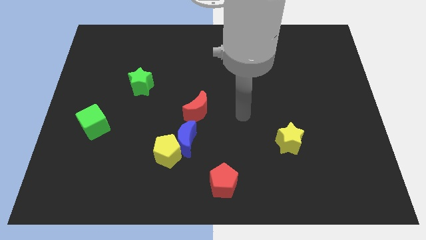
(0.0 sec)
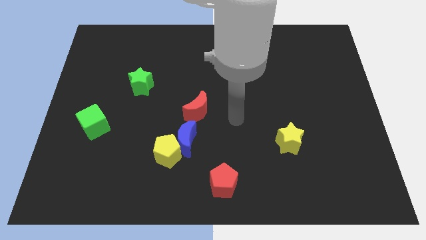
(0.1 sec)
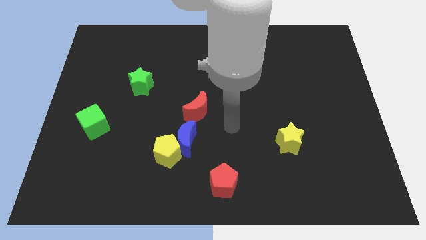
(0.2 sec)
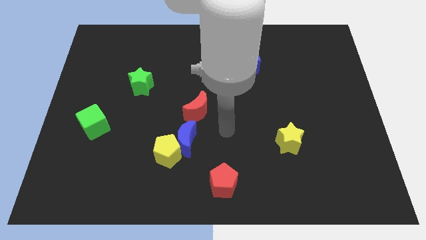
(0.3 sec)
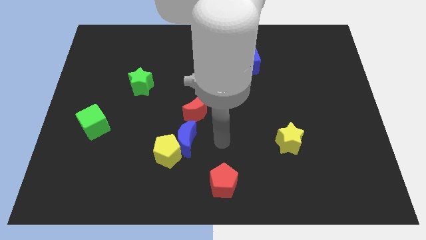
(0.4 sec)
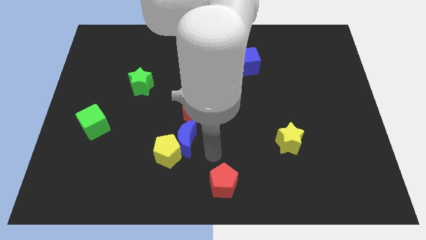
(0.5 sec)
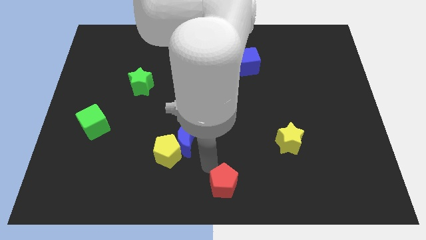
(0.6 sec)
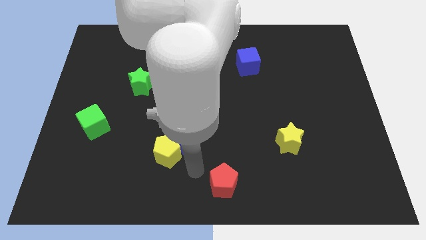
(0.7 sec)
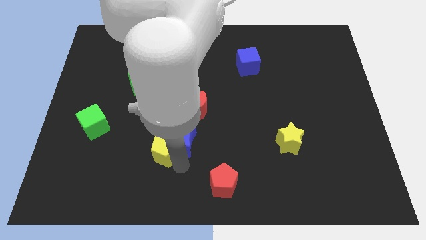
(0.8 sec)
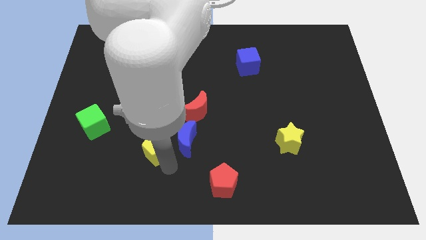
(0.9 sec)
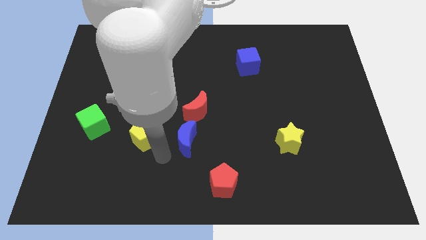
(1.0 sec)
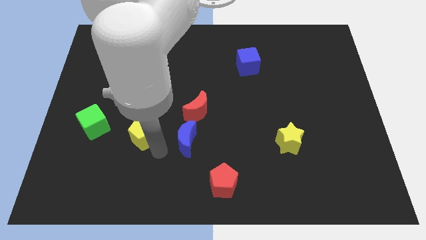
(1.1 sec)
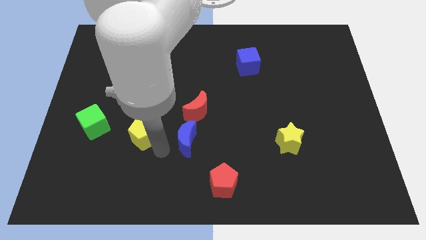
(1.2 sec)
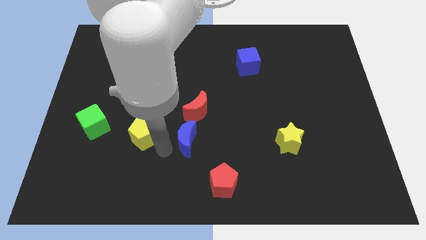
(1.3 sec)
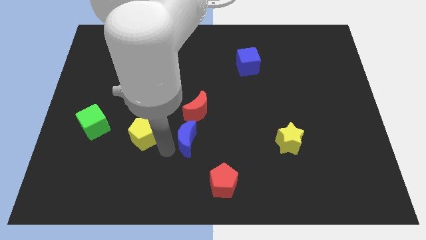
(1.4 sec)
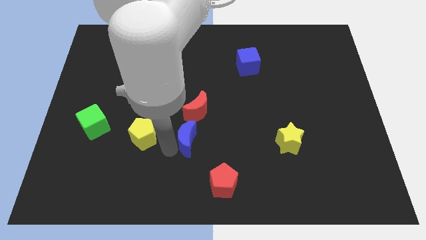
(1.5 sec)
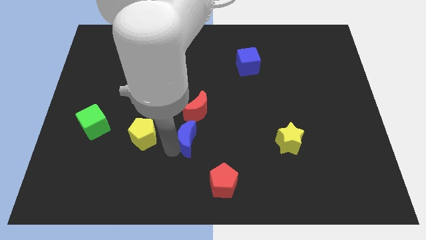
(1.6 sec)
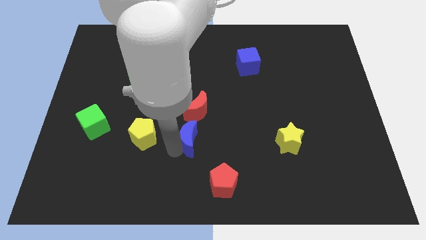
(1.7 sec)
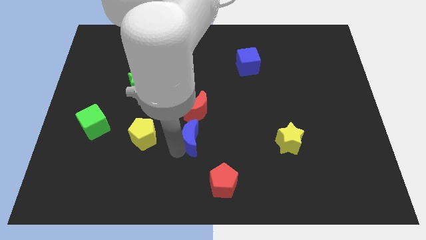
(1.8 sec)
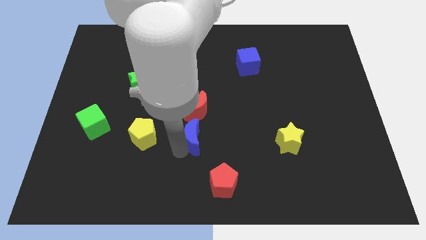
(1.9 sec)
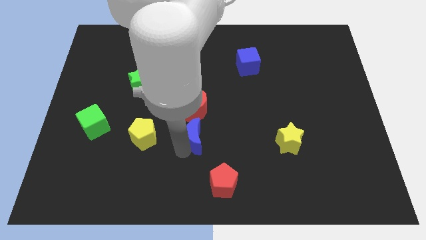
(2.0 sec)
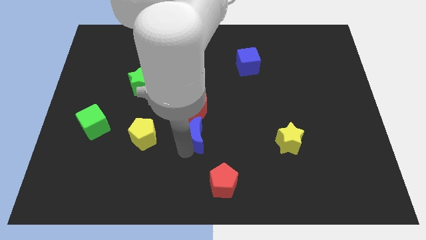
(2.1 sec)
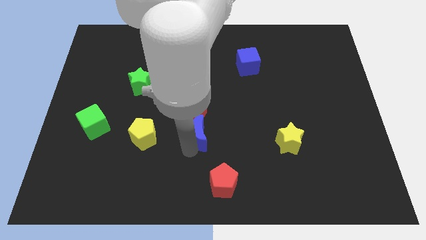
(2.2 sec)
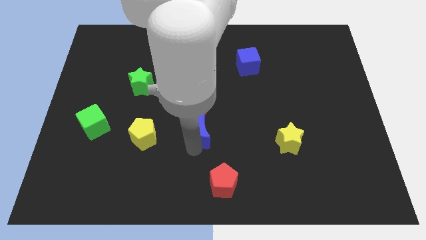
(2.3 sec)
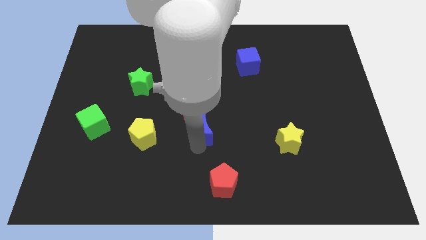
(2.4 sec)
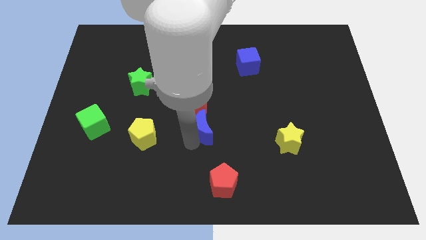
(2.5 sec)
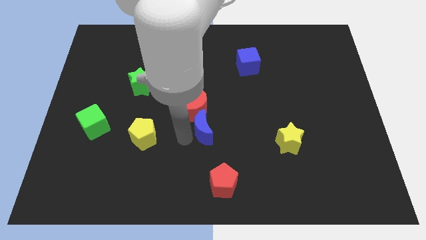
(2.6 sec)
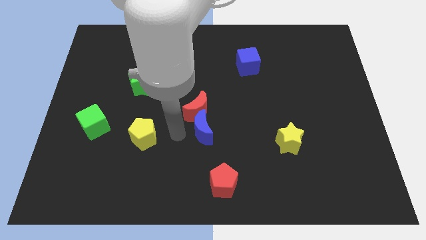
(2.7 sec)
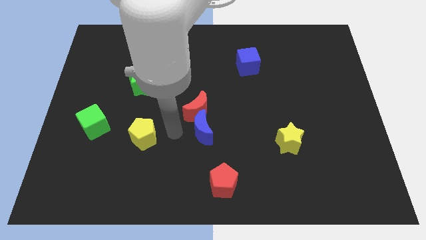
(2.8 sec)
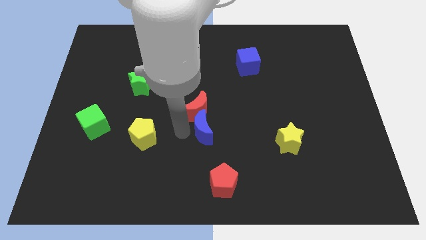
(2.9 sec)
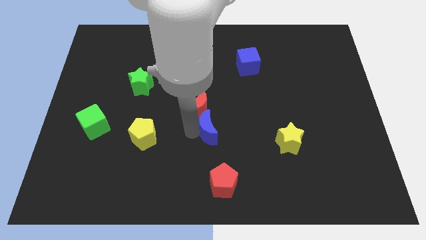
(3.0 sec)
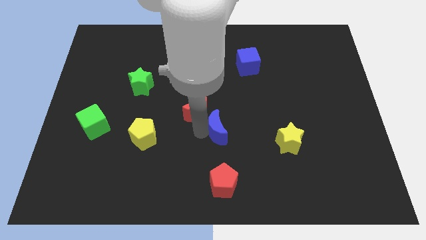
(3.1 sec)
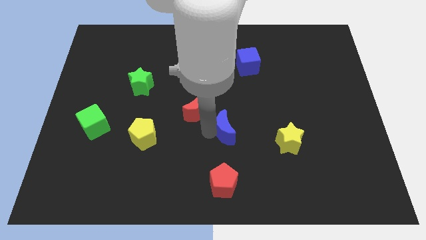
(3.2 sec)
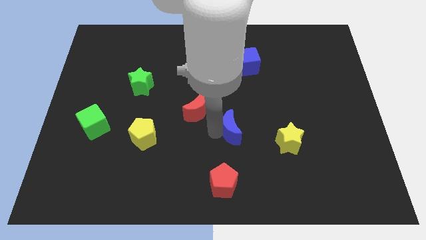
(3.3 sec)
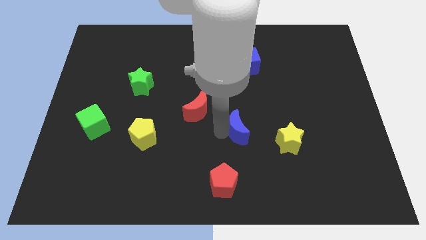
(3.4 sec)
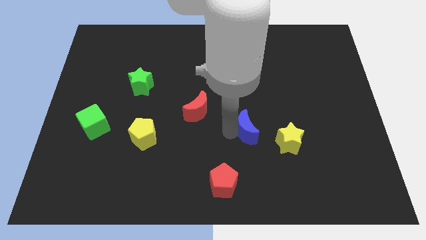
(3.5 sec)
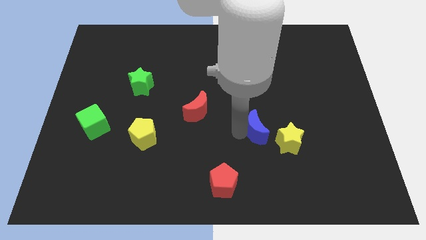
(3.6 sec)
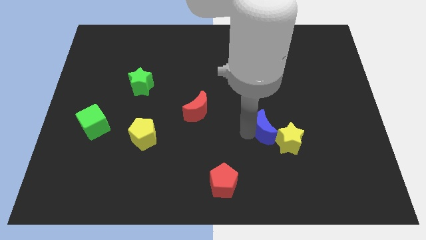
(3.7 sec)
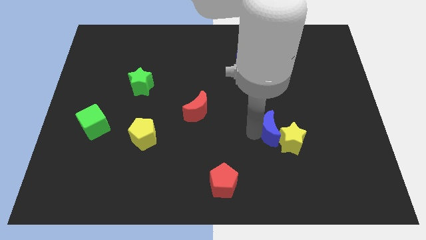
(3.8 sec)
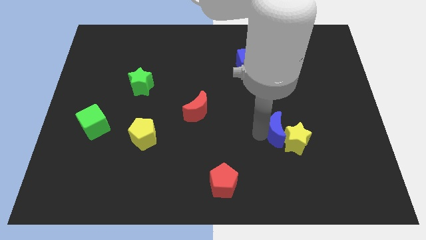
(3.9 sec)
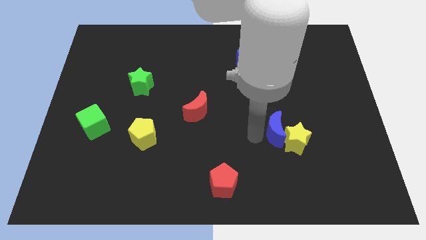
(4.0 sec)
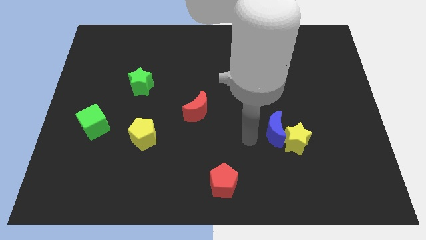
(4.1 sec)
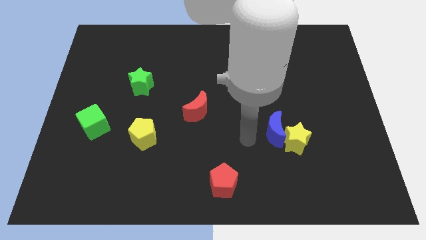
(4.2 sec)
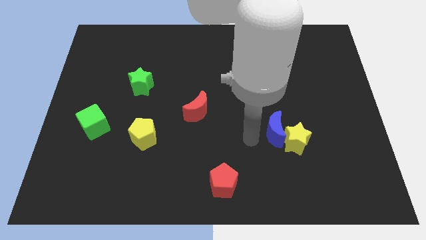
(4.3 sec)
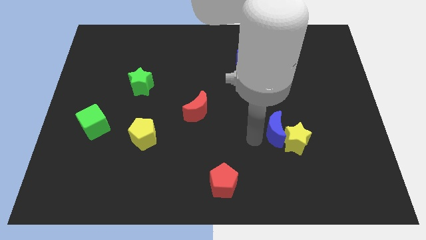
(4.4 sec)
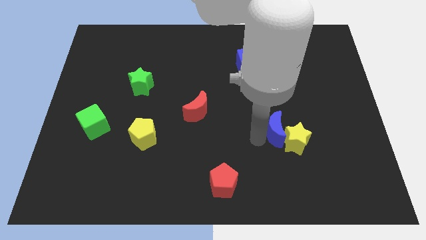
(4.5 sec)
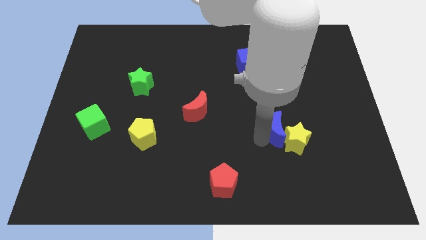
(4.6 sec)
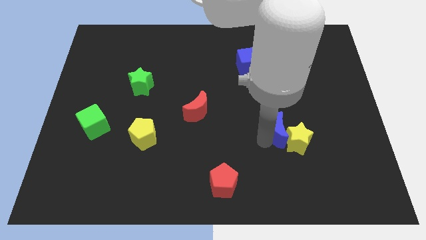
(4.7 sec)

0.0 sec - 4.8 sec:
slide the blue moon right

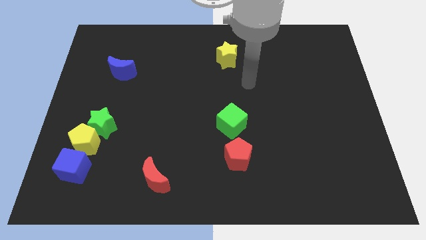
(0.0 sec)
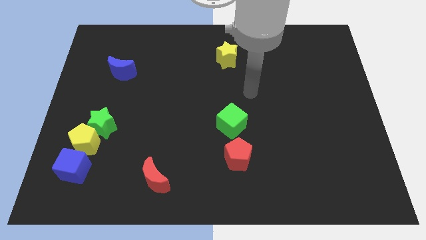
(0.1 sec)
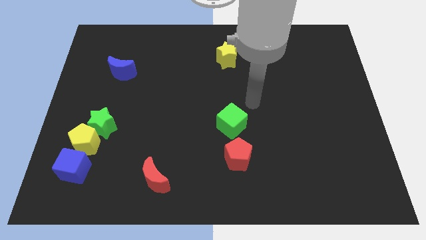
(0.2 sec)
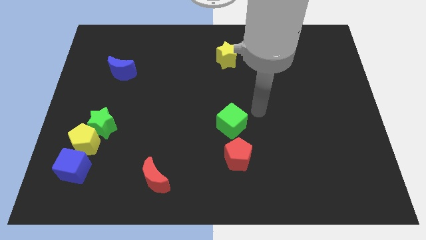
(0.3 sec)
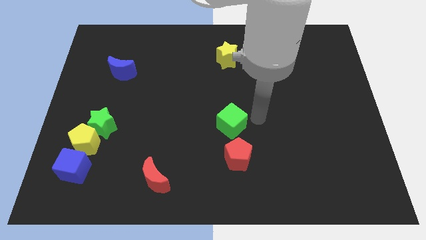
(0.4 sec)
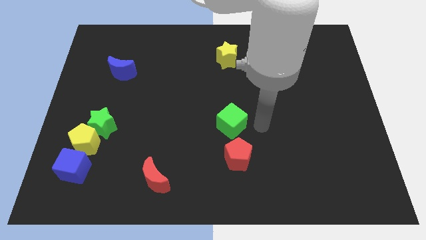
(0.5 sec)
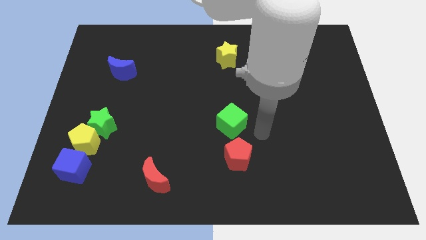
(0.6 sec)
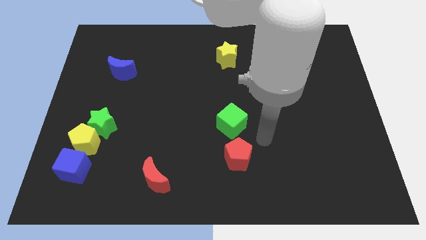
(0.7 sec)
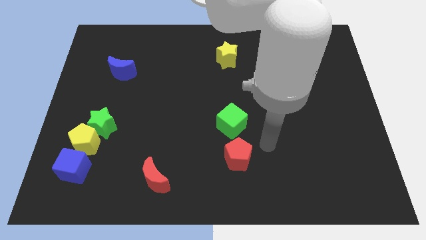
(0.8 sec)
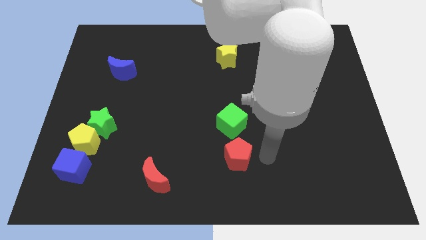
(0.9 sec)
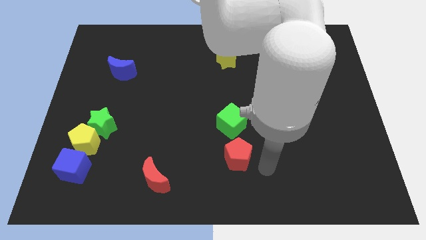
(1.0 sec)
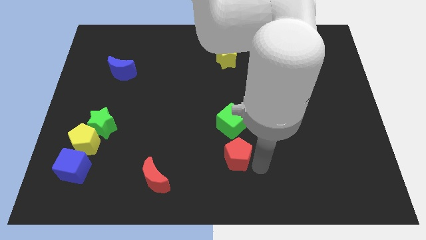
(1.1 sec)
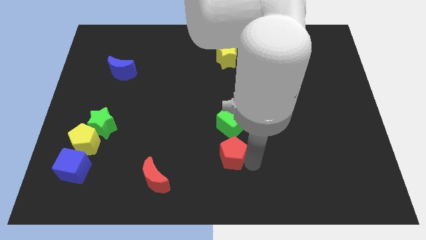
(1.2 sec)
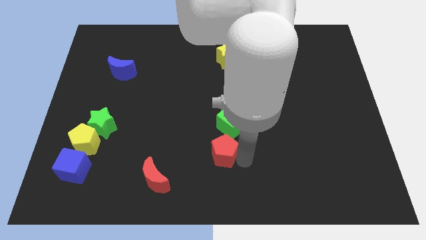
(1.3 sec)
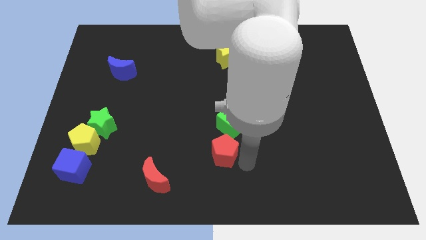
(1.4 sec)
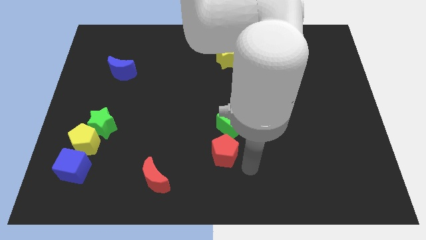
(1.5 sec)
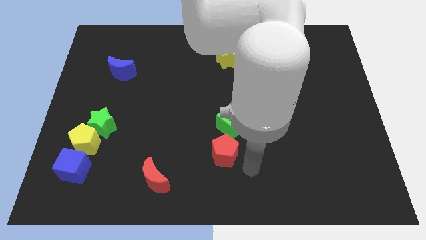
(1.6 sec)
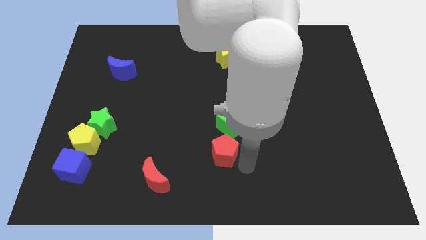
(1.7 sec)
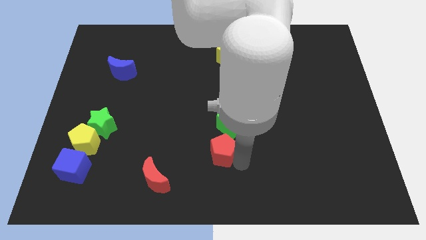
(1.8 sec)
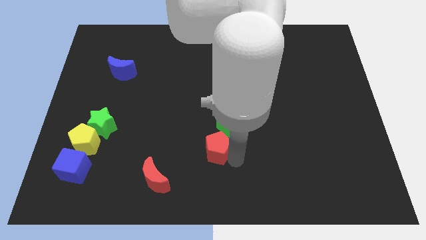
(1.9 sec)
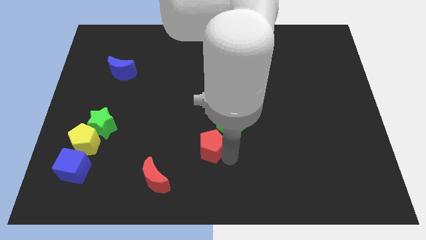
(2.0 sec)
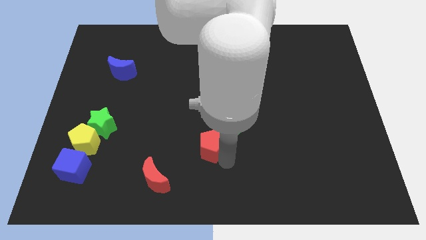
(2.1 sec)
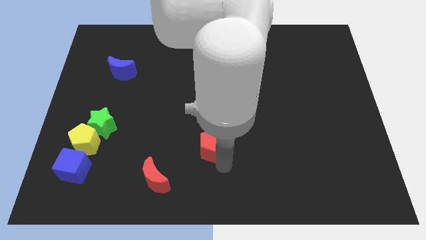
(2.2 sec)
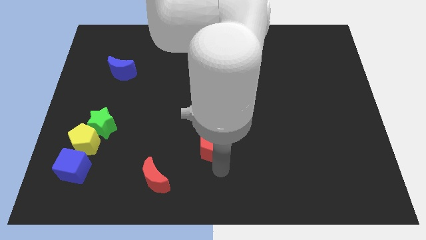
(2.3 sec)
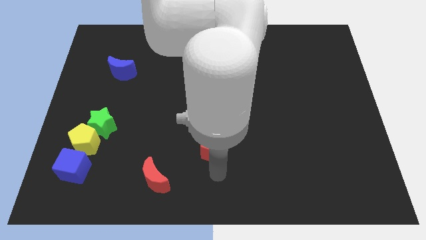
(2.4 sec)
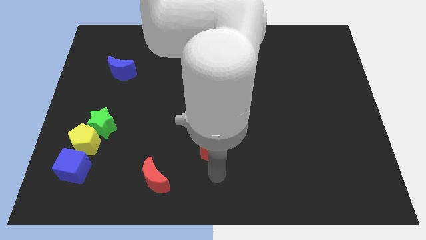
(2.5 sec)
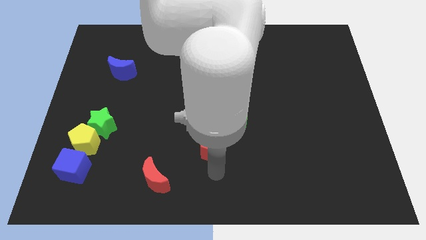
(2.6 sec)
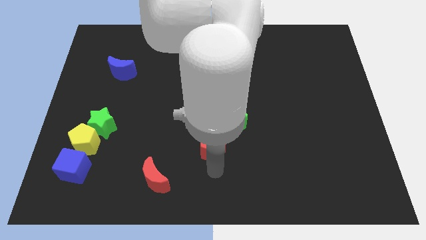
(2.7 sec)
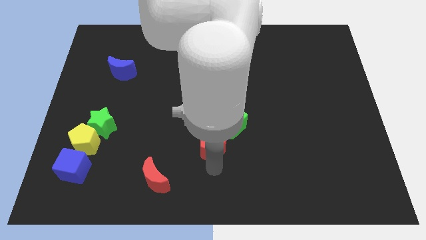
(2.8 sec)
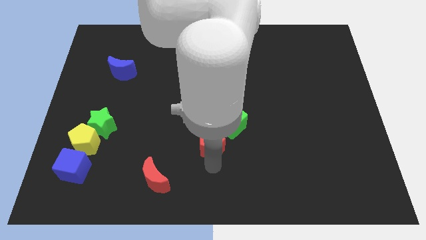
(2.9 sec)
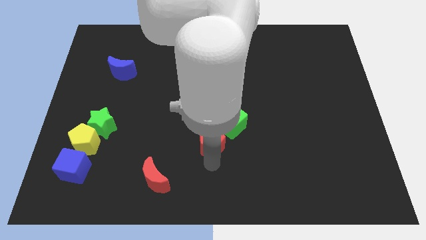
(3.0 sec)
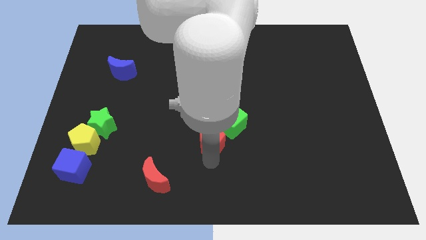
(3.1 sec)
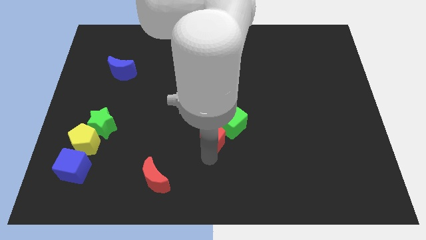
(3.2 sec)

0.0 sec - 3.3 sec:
move the red pentagon up and then to the left a bit
